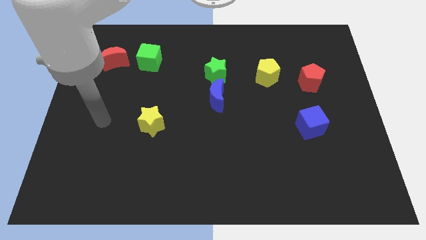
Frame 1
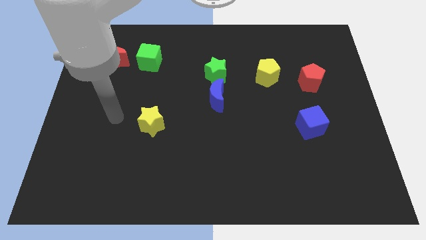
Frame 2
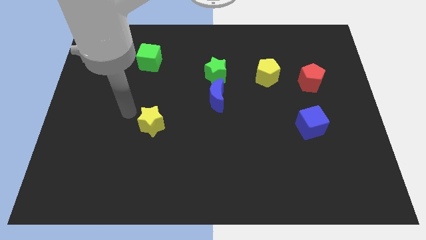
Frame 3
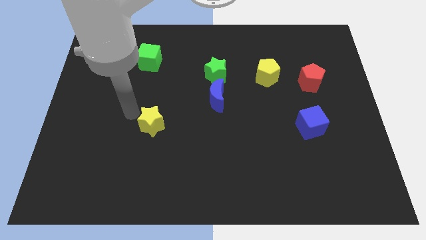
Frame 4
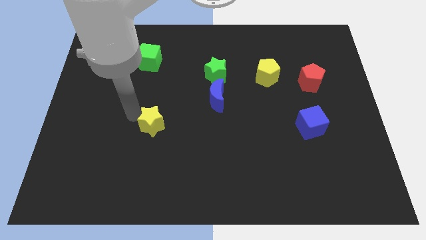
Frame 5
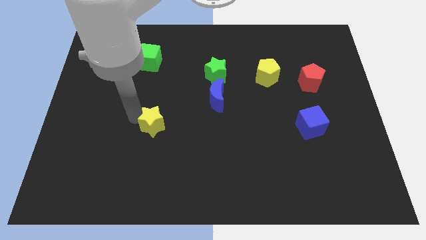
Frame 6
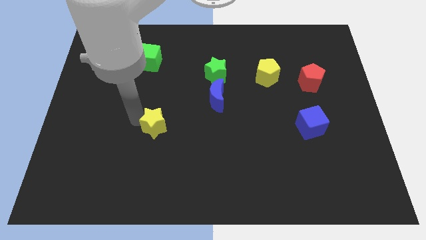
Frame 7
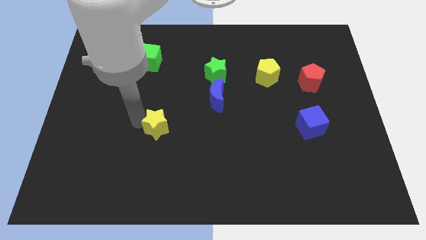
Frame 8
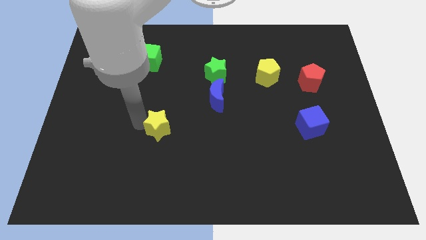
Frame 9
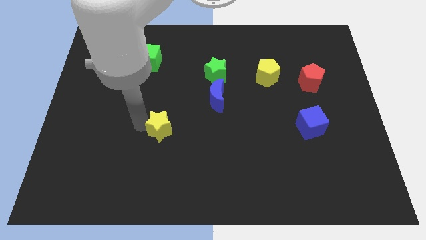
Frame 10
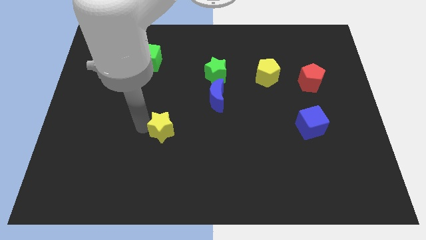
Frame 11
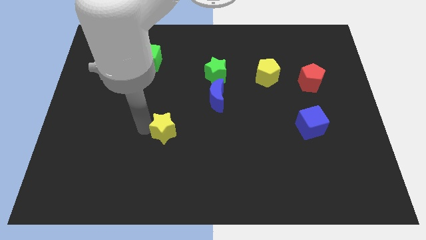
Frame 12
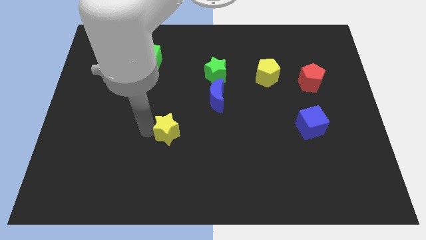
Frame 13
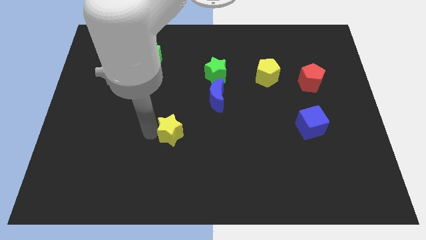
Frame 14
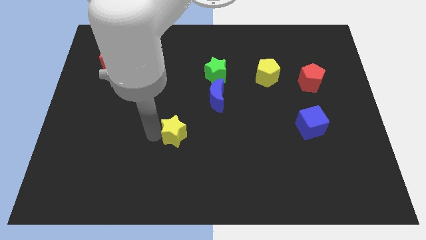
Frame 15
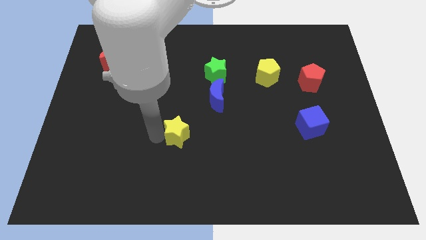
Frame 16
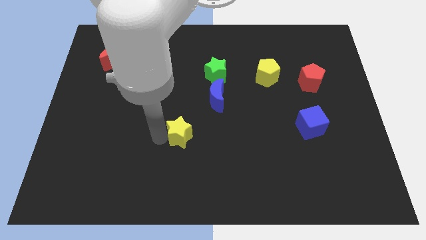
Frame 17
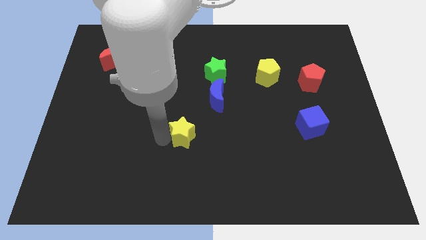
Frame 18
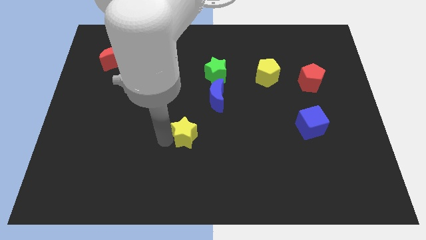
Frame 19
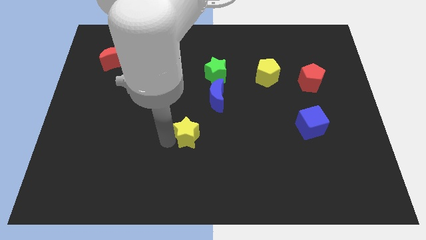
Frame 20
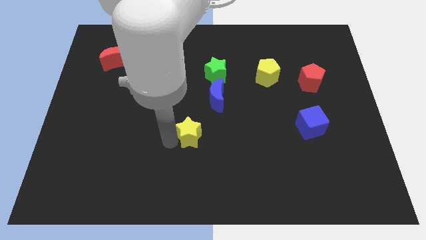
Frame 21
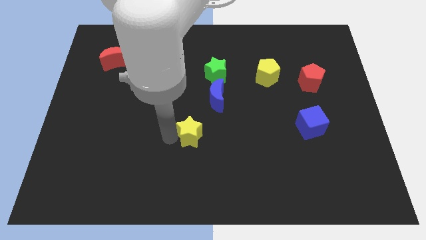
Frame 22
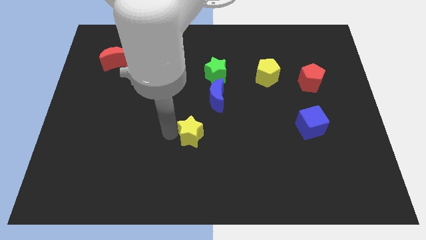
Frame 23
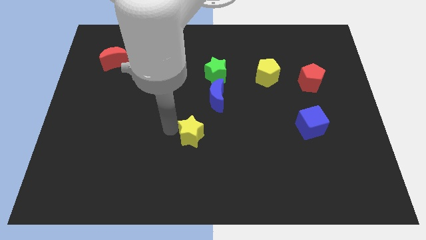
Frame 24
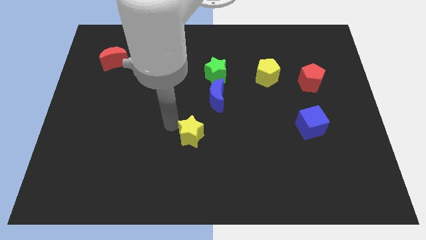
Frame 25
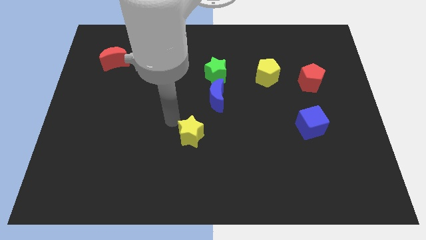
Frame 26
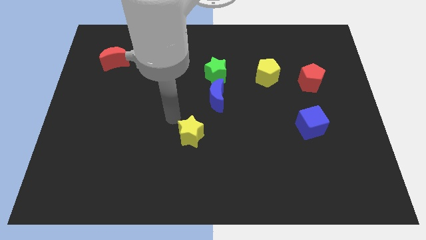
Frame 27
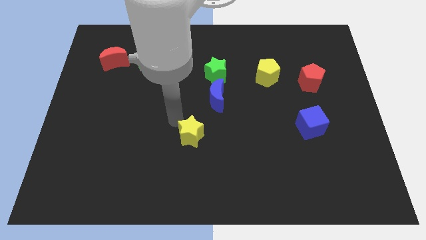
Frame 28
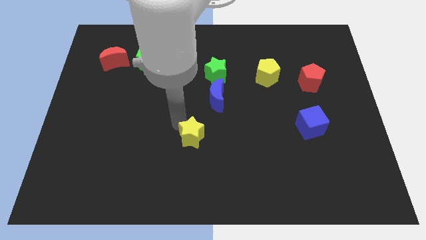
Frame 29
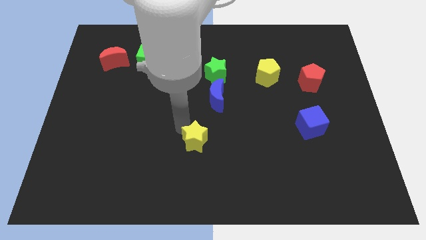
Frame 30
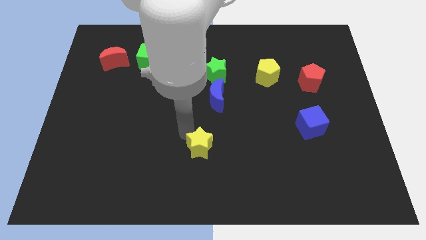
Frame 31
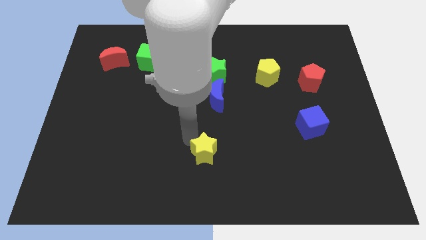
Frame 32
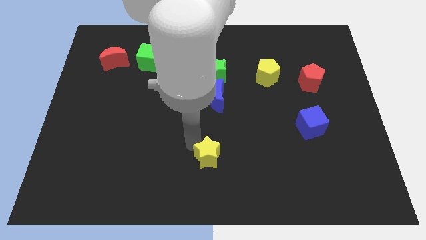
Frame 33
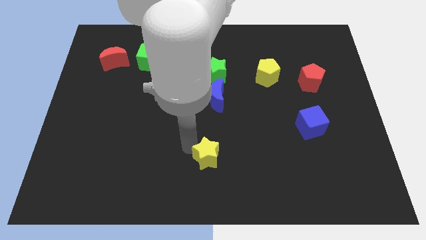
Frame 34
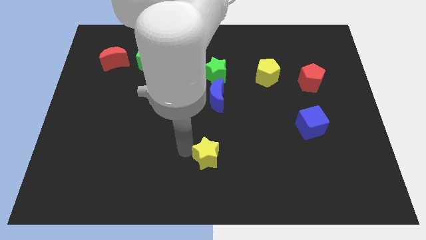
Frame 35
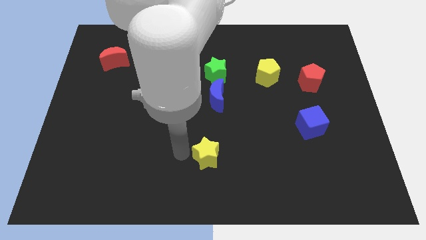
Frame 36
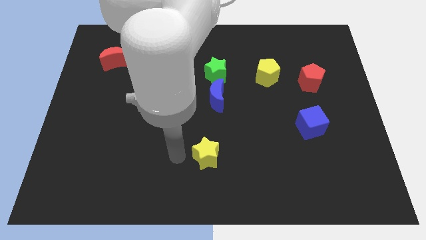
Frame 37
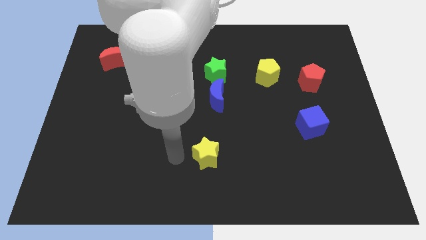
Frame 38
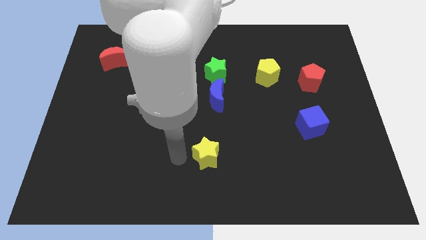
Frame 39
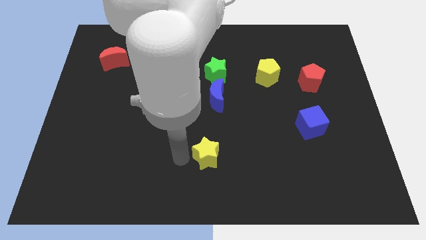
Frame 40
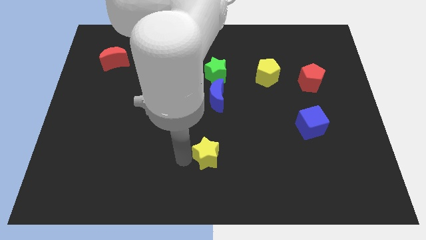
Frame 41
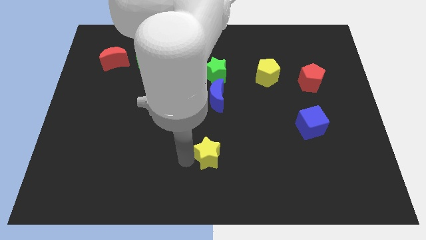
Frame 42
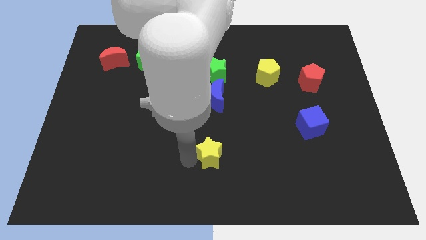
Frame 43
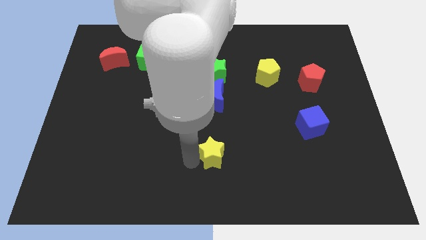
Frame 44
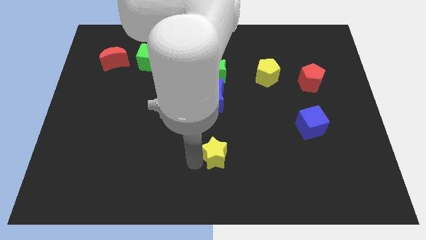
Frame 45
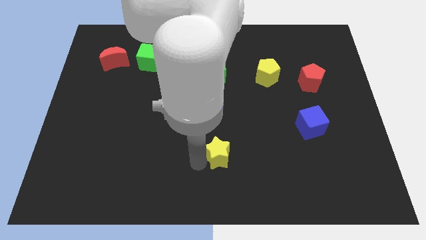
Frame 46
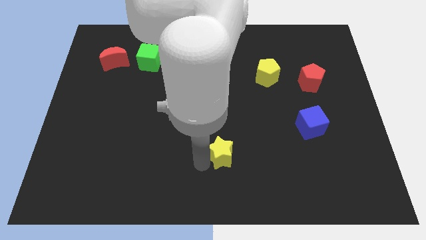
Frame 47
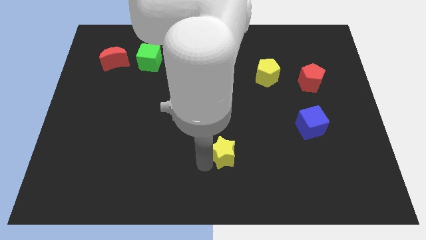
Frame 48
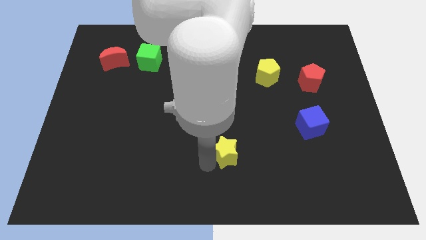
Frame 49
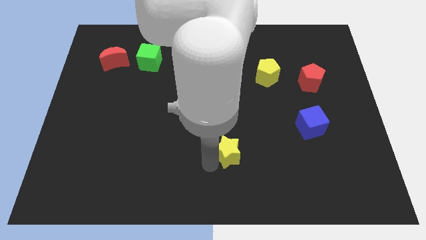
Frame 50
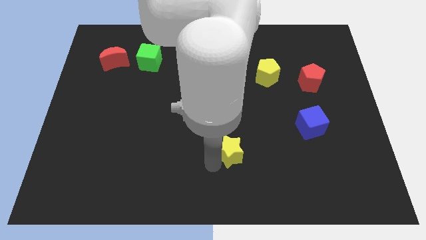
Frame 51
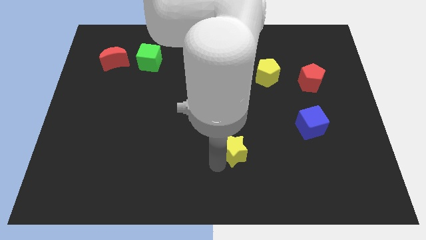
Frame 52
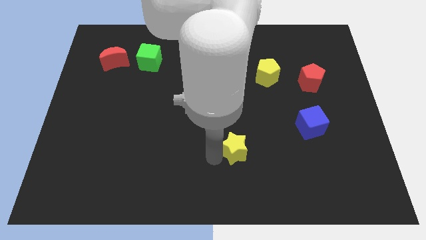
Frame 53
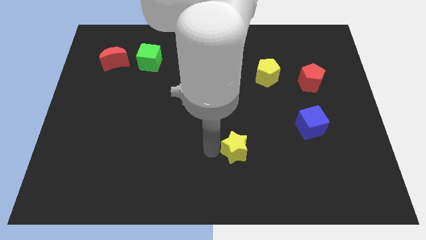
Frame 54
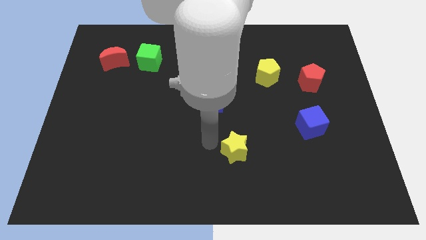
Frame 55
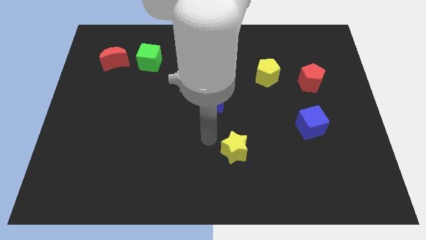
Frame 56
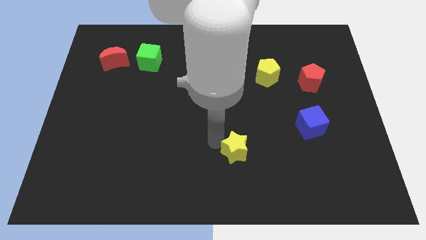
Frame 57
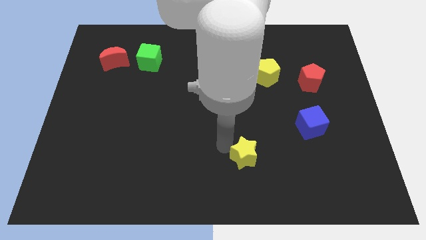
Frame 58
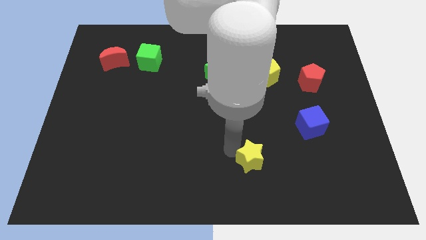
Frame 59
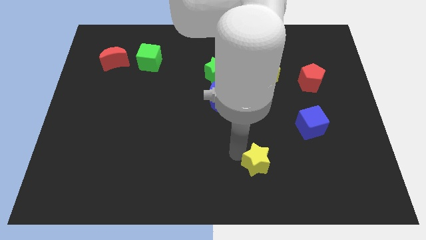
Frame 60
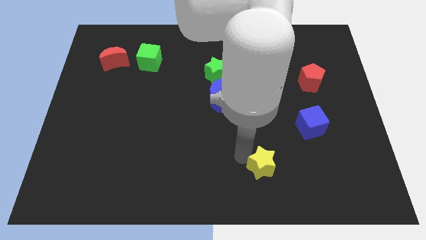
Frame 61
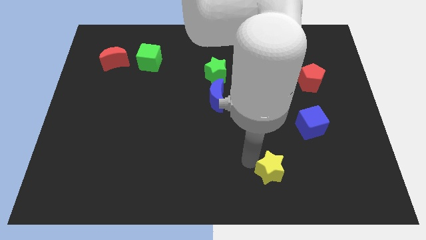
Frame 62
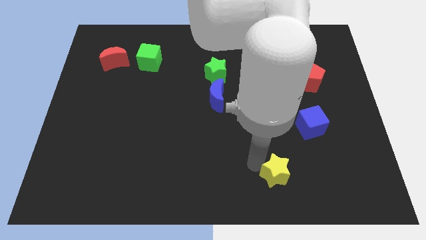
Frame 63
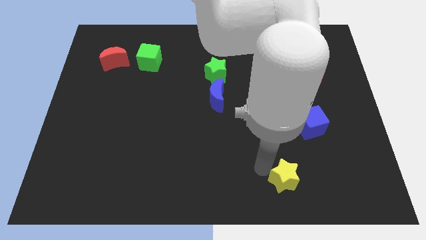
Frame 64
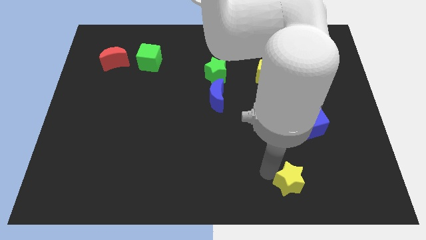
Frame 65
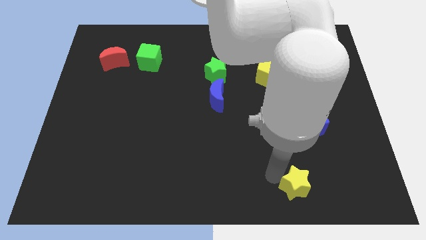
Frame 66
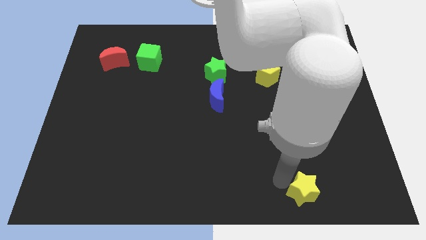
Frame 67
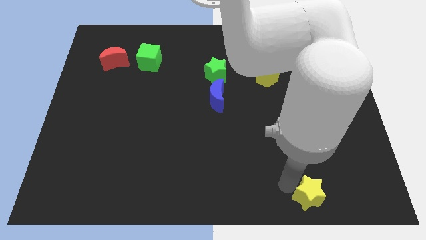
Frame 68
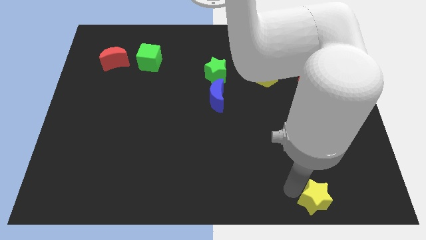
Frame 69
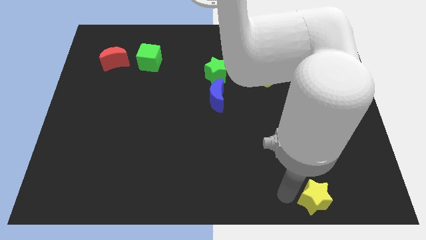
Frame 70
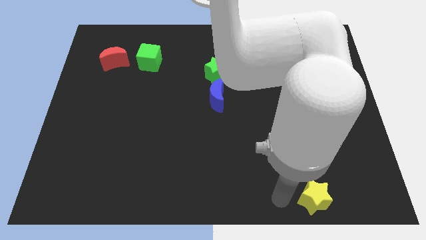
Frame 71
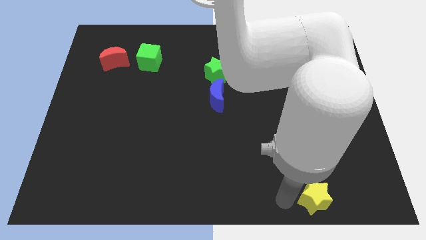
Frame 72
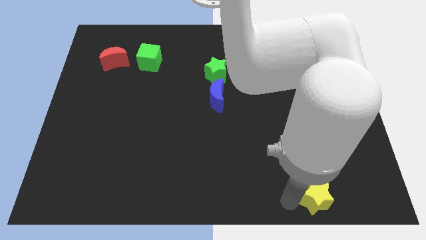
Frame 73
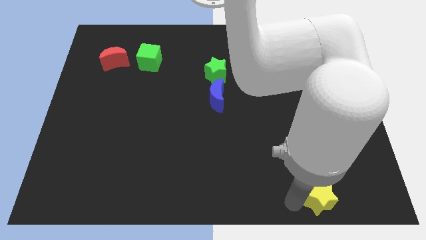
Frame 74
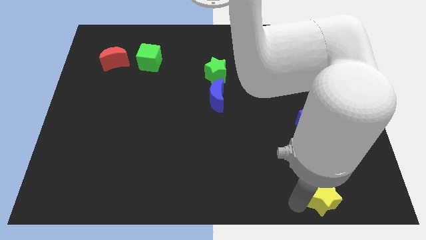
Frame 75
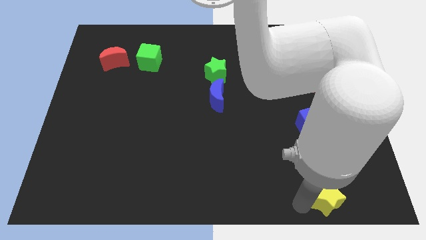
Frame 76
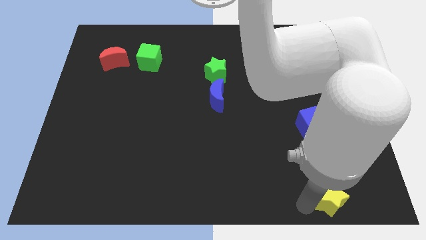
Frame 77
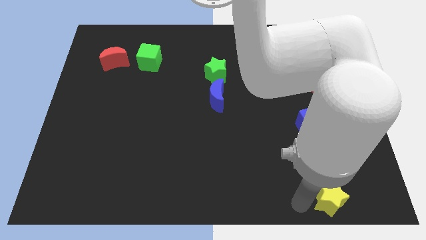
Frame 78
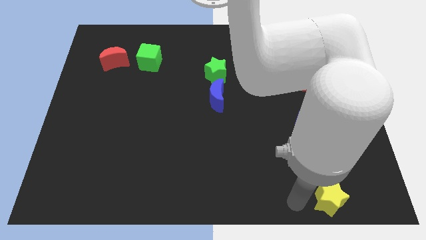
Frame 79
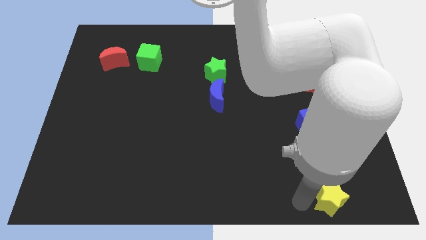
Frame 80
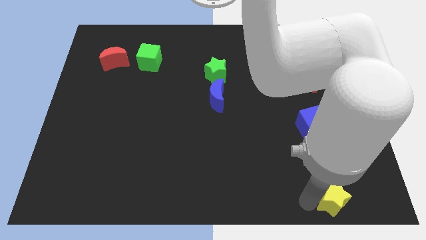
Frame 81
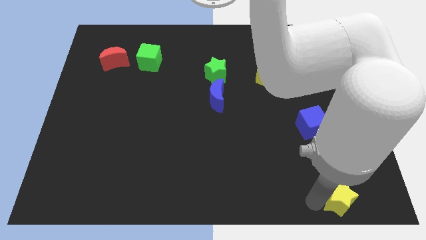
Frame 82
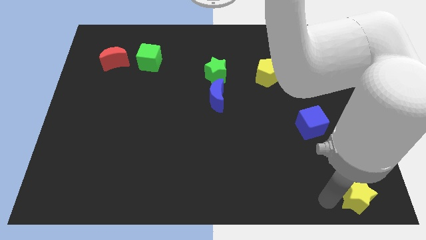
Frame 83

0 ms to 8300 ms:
slide the yellow star to the bottom right corner
